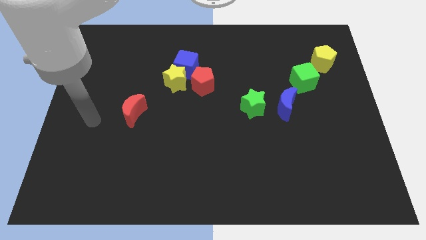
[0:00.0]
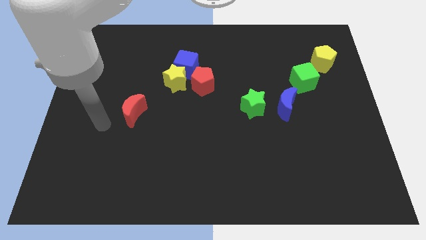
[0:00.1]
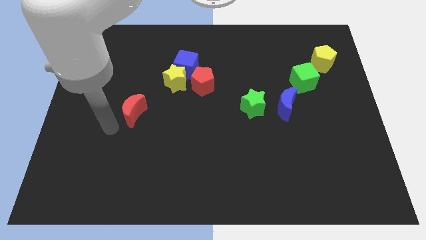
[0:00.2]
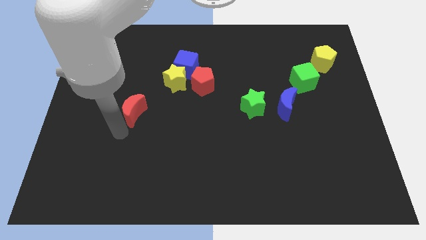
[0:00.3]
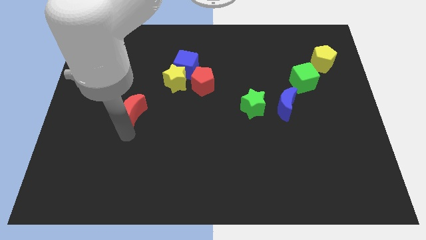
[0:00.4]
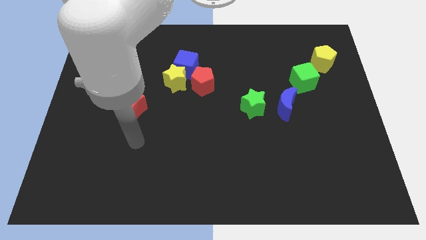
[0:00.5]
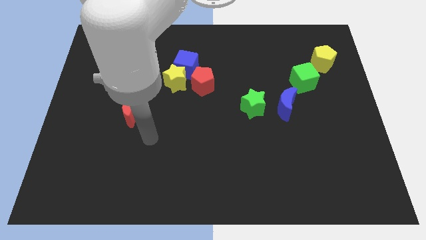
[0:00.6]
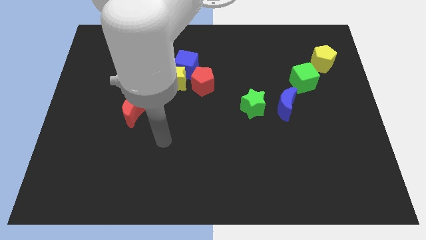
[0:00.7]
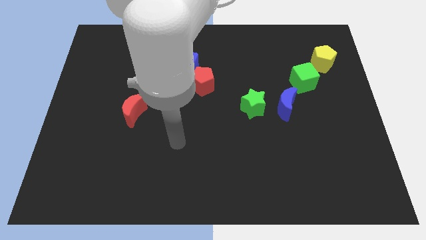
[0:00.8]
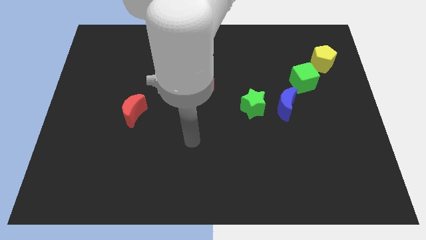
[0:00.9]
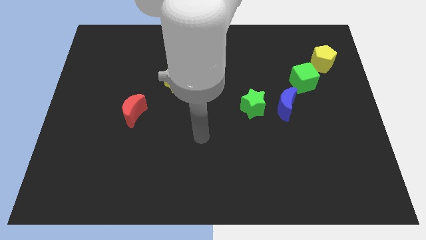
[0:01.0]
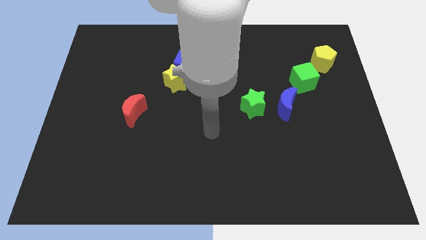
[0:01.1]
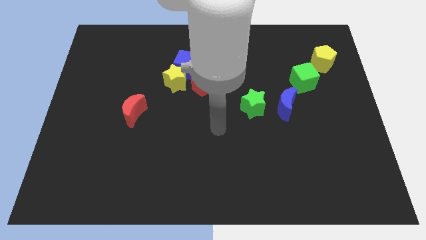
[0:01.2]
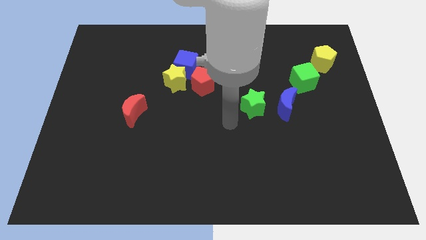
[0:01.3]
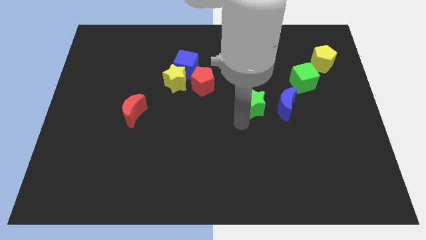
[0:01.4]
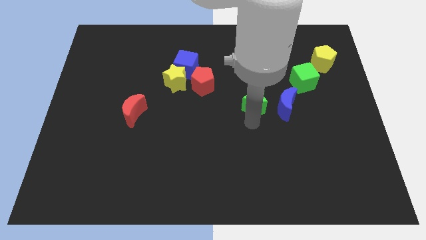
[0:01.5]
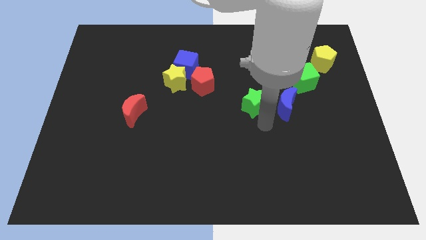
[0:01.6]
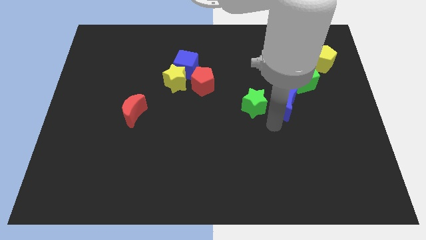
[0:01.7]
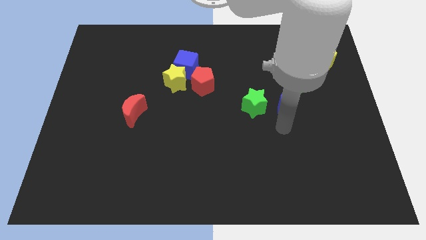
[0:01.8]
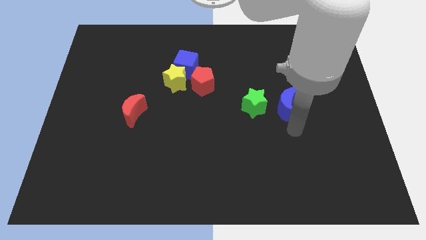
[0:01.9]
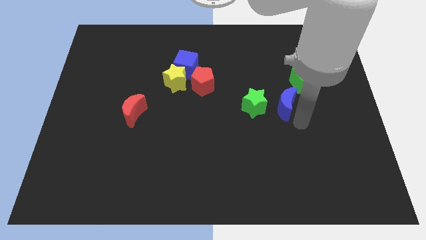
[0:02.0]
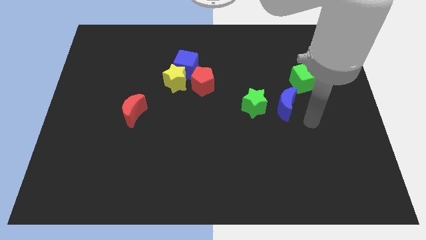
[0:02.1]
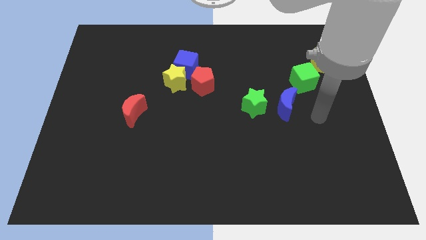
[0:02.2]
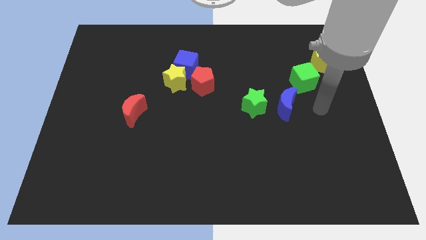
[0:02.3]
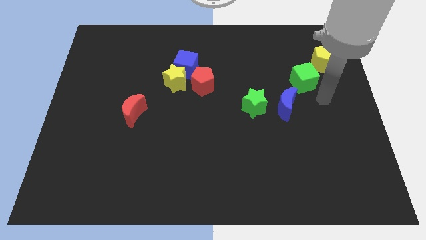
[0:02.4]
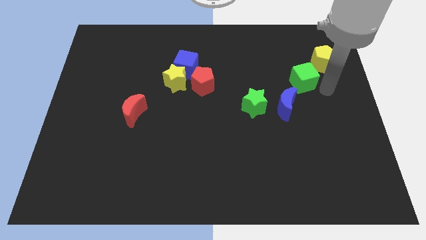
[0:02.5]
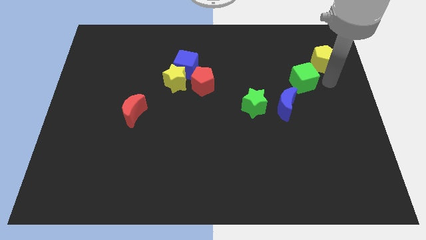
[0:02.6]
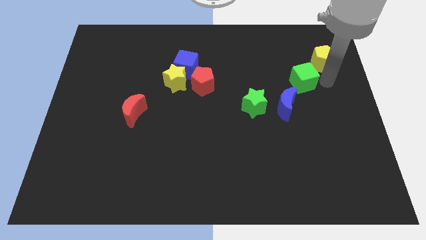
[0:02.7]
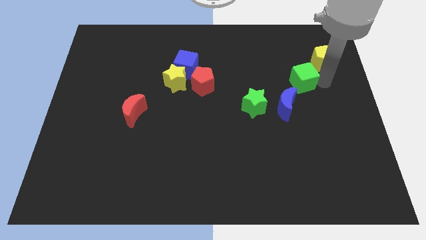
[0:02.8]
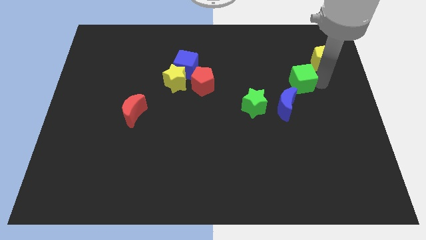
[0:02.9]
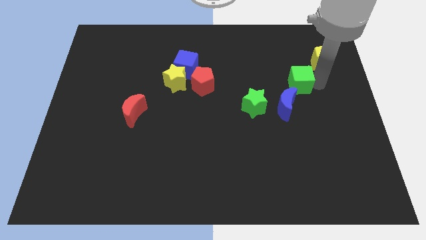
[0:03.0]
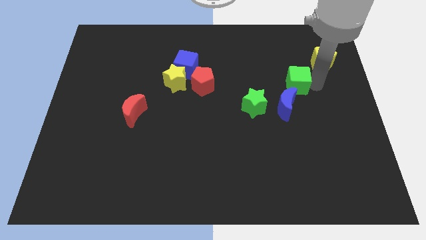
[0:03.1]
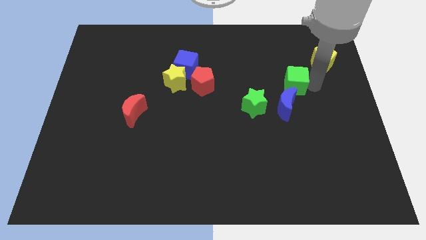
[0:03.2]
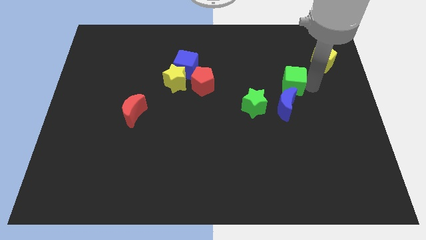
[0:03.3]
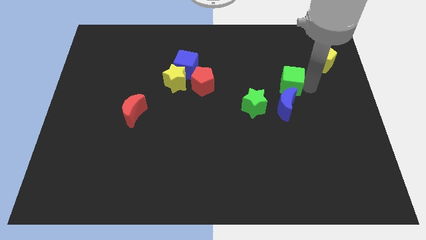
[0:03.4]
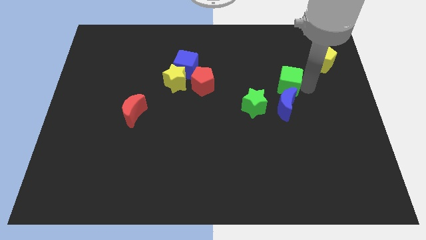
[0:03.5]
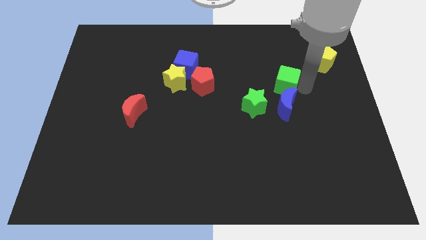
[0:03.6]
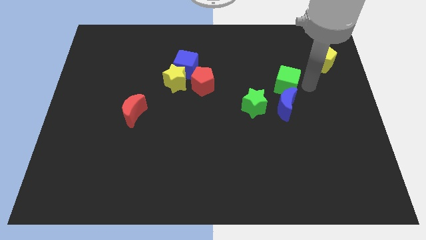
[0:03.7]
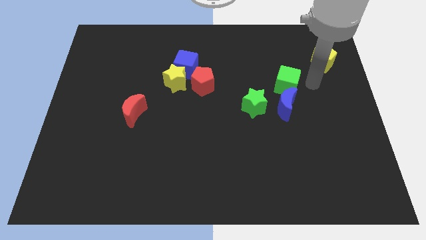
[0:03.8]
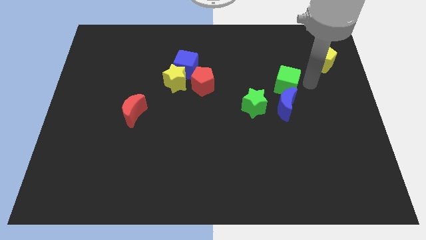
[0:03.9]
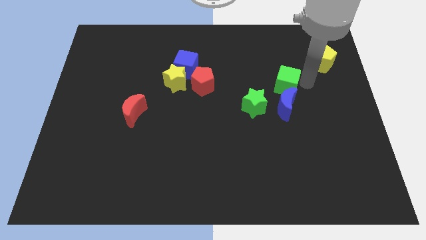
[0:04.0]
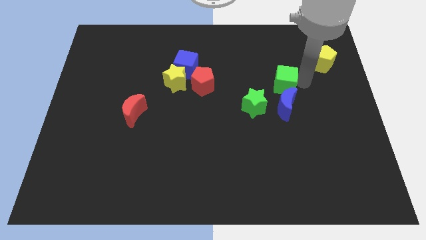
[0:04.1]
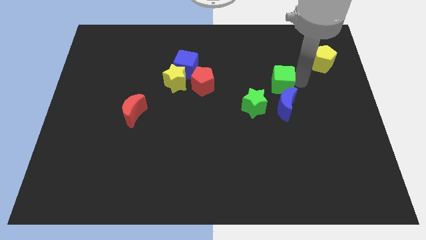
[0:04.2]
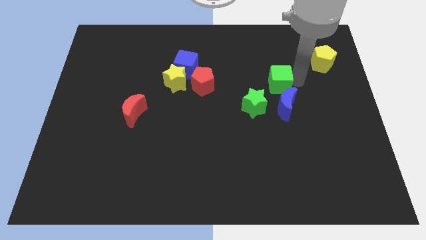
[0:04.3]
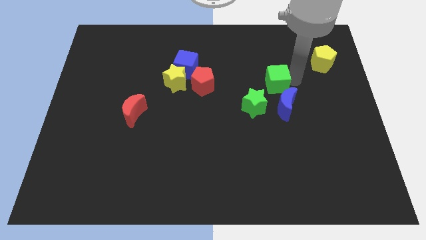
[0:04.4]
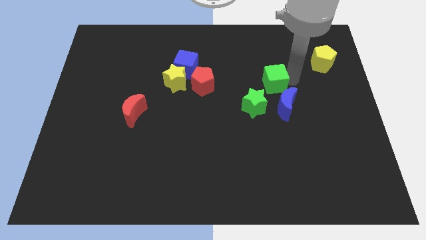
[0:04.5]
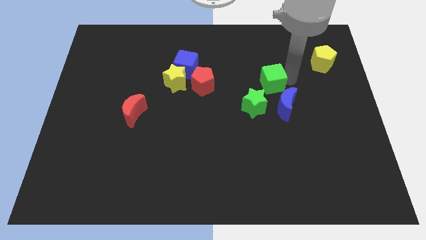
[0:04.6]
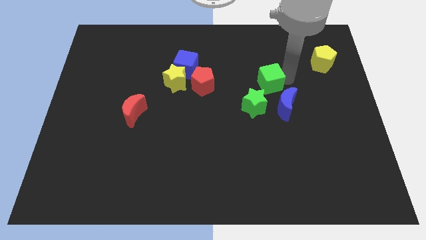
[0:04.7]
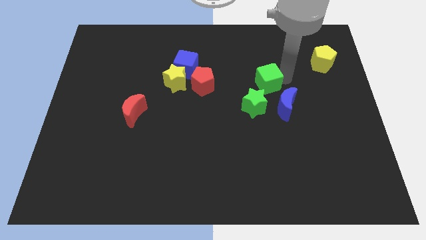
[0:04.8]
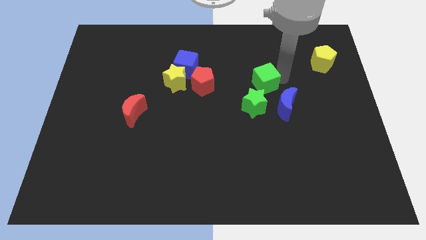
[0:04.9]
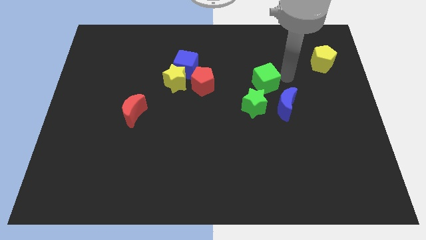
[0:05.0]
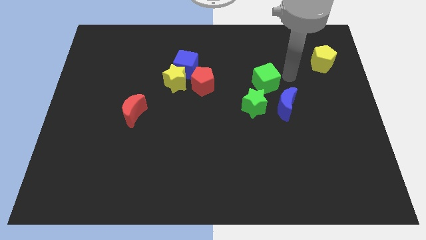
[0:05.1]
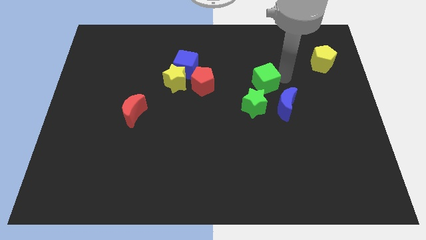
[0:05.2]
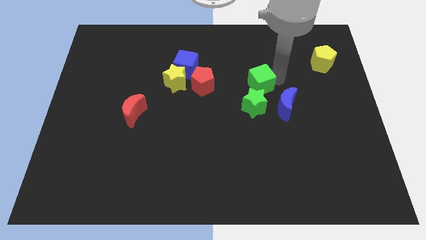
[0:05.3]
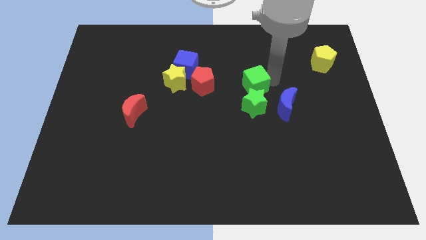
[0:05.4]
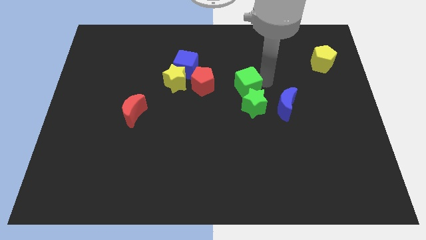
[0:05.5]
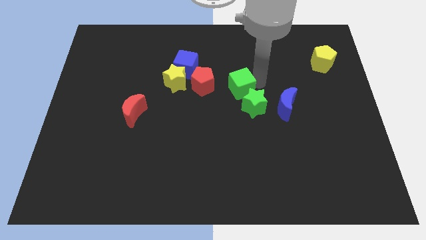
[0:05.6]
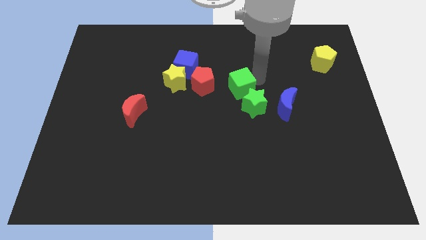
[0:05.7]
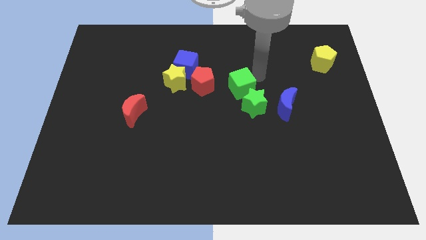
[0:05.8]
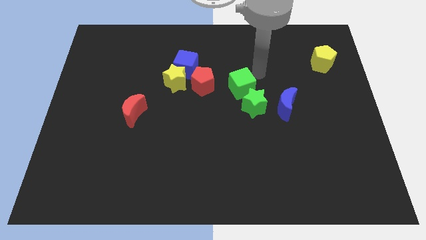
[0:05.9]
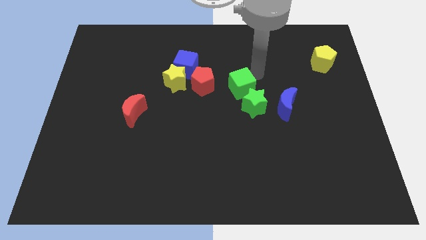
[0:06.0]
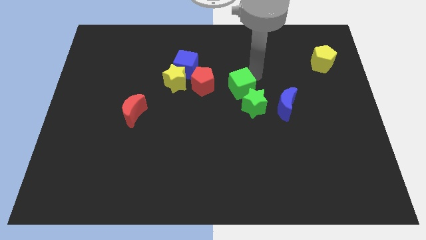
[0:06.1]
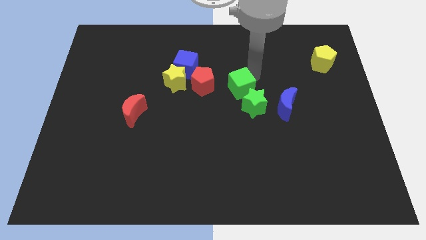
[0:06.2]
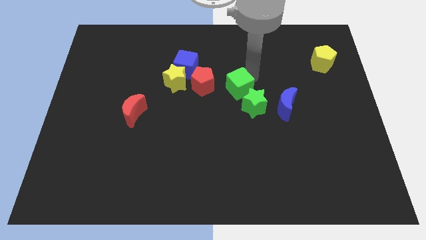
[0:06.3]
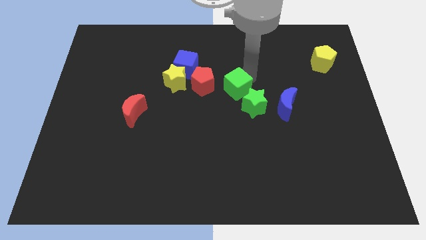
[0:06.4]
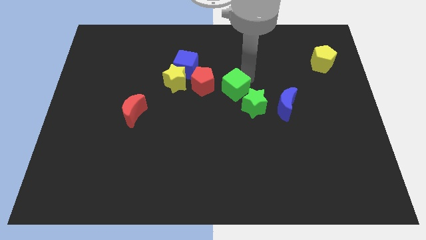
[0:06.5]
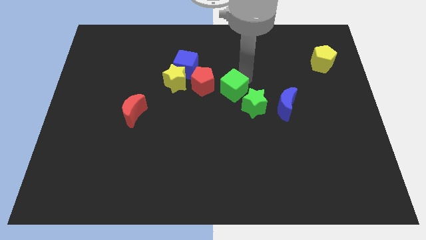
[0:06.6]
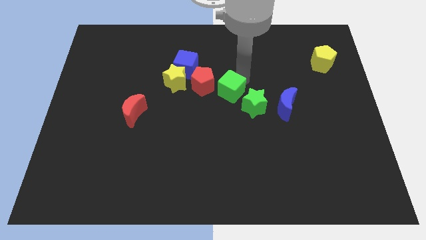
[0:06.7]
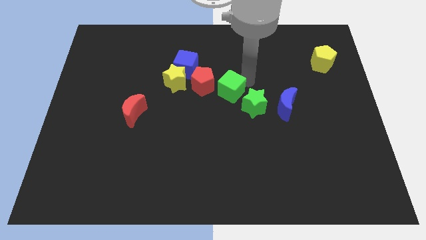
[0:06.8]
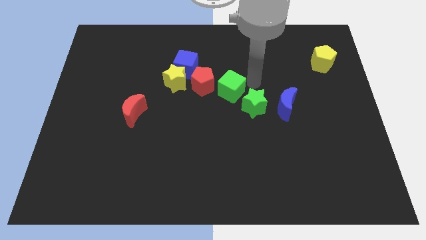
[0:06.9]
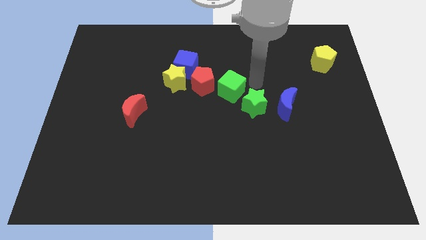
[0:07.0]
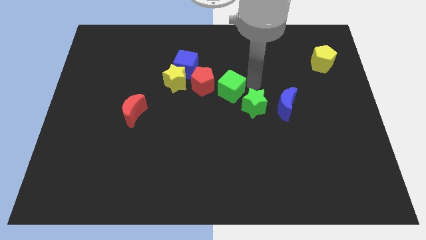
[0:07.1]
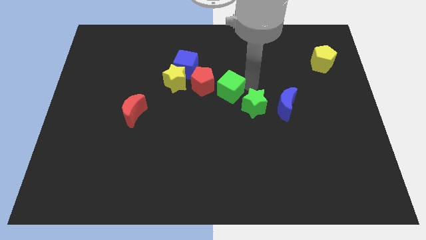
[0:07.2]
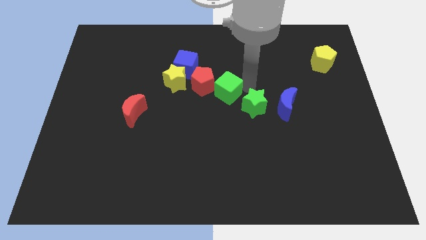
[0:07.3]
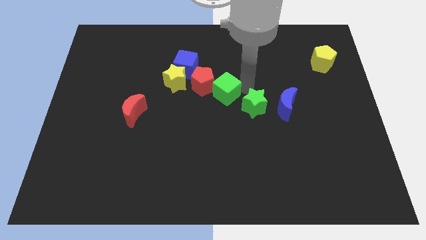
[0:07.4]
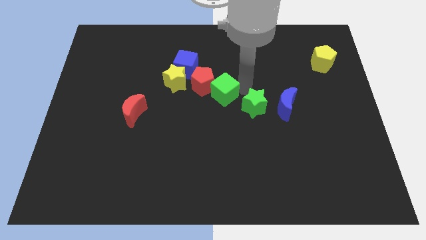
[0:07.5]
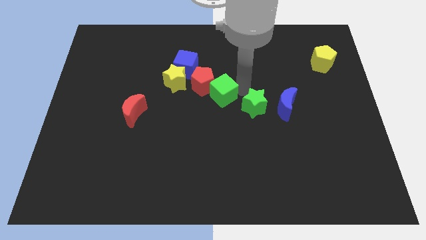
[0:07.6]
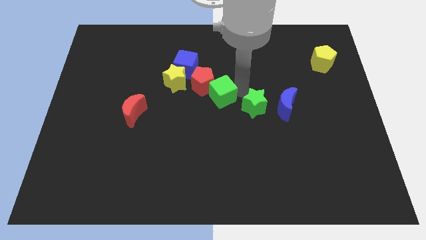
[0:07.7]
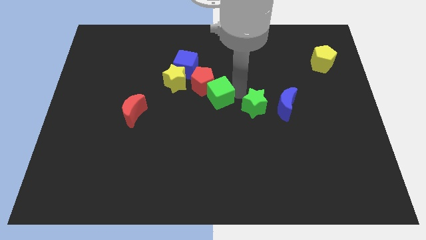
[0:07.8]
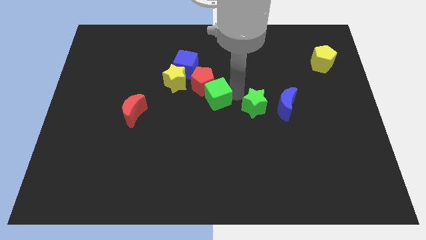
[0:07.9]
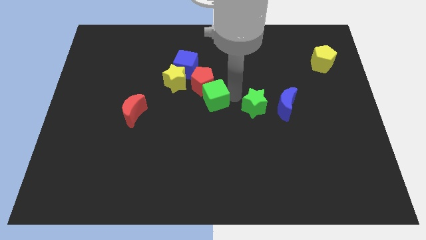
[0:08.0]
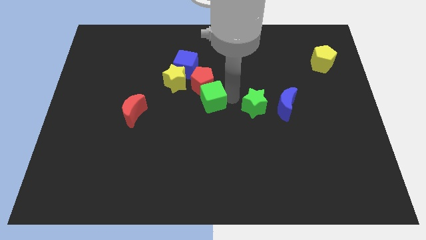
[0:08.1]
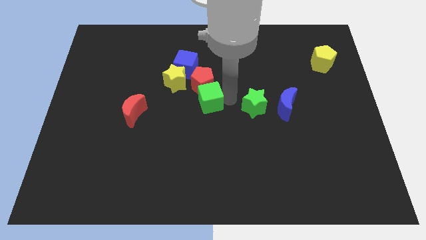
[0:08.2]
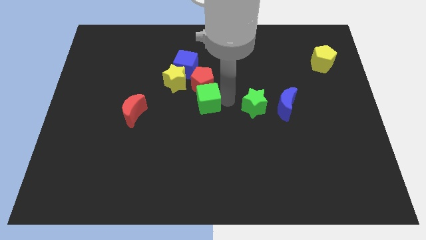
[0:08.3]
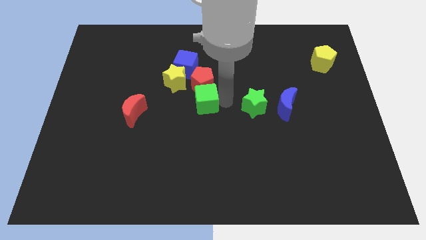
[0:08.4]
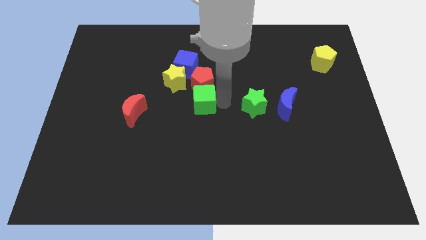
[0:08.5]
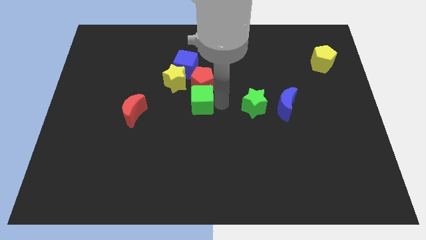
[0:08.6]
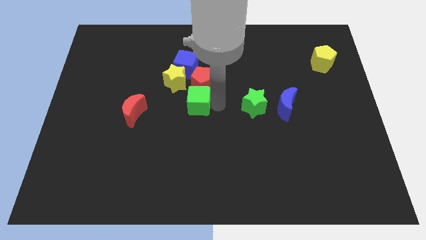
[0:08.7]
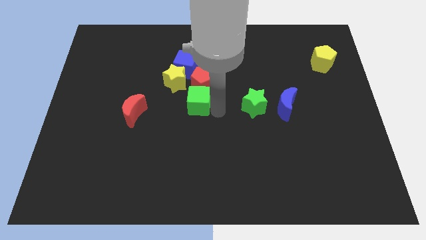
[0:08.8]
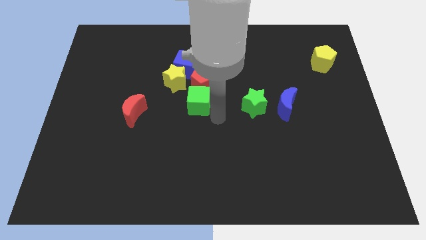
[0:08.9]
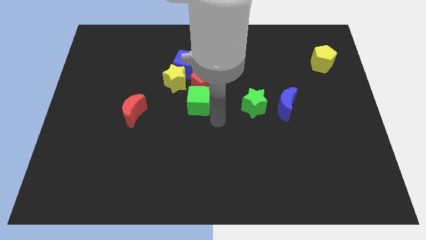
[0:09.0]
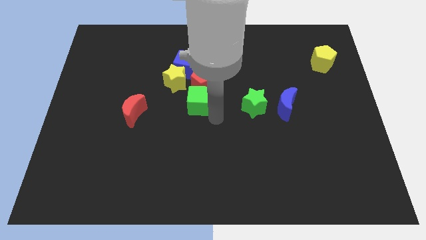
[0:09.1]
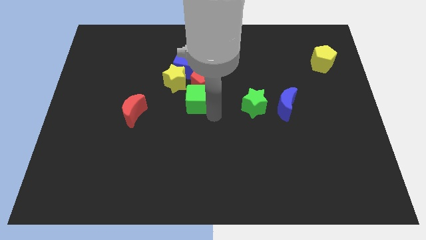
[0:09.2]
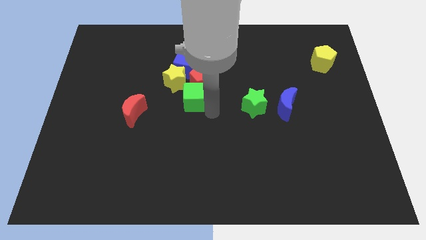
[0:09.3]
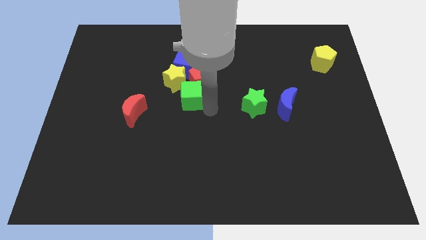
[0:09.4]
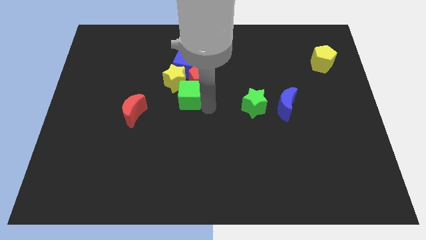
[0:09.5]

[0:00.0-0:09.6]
put the green cube towards the yellow star
